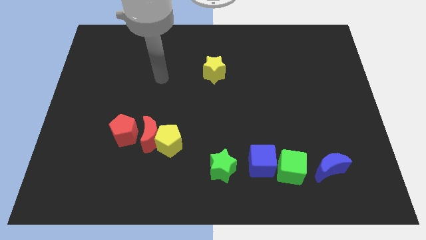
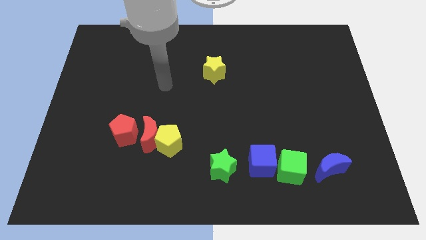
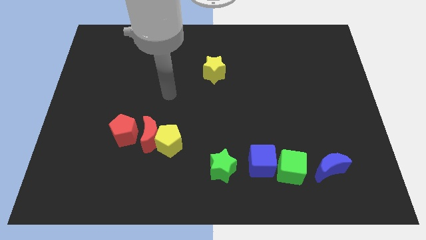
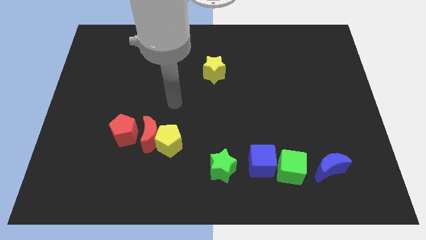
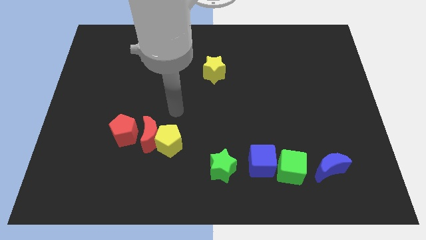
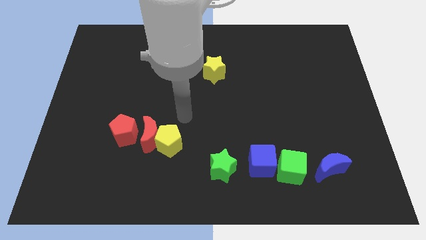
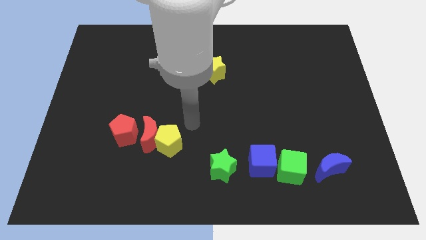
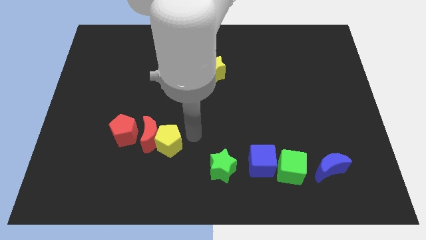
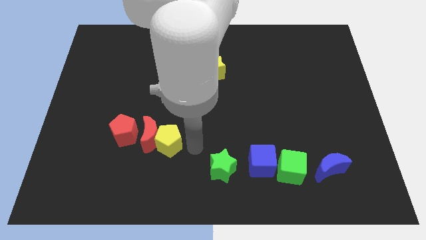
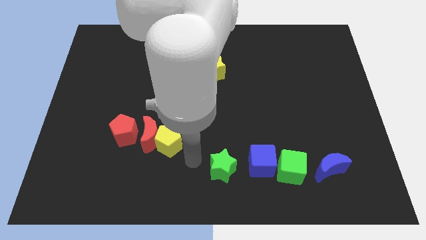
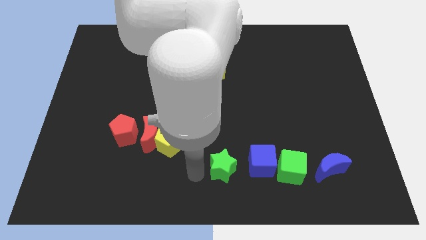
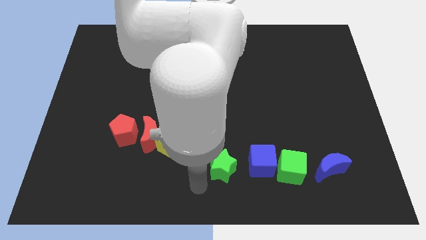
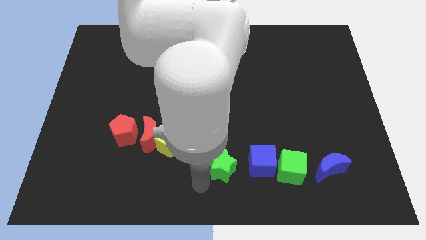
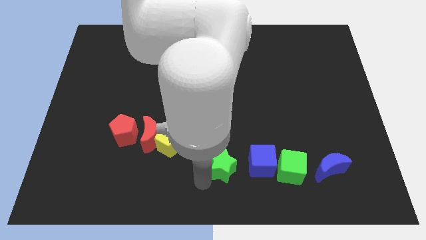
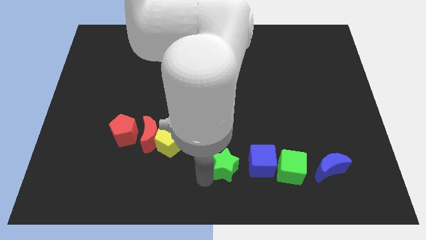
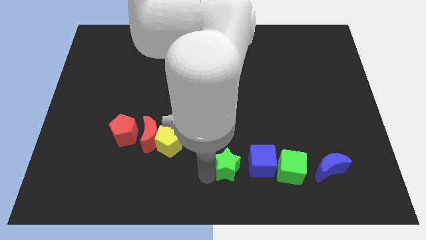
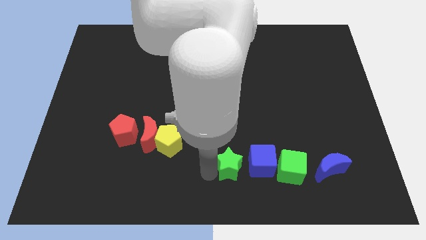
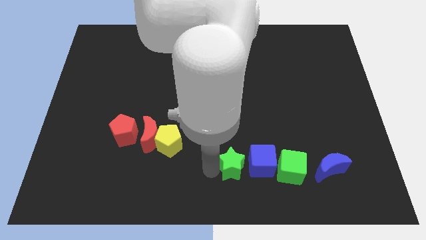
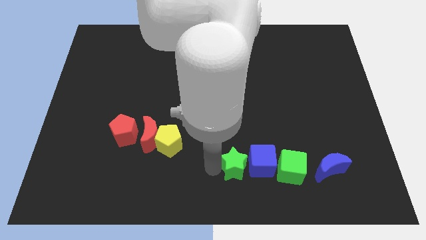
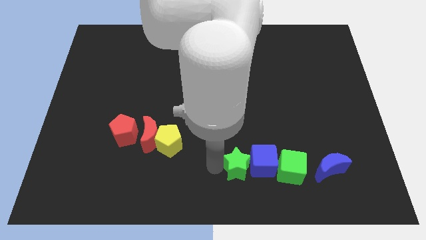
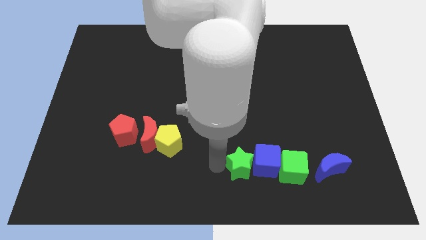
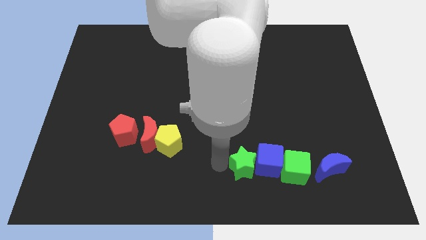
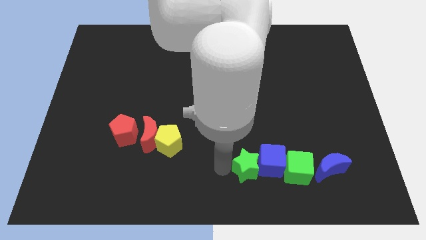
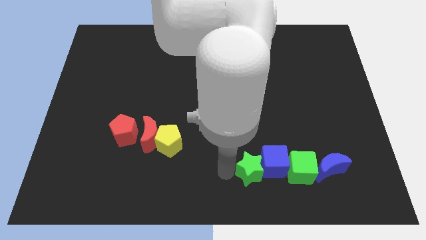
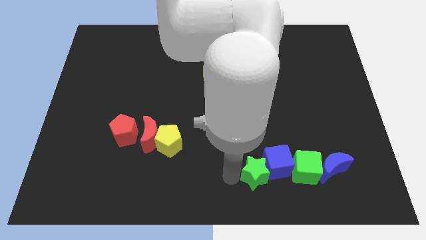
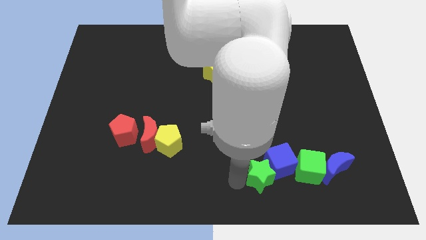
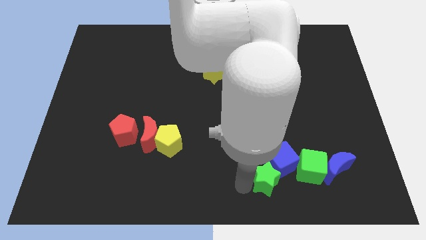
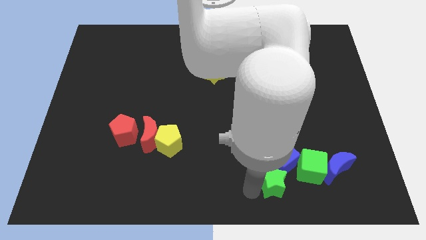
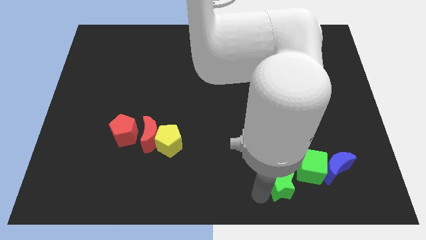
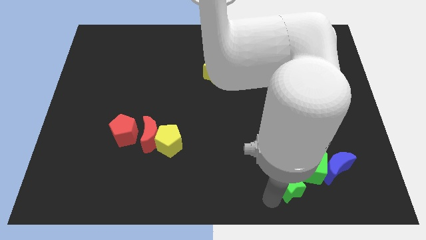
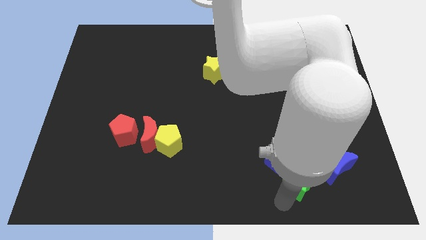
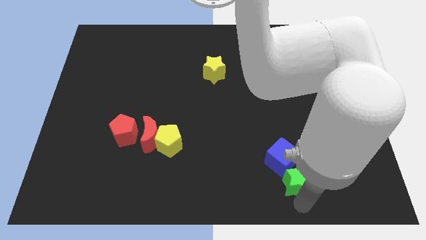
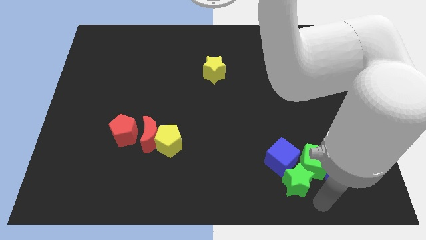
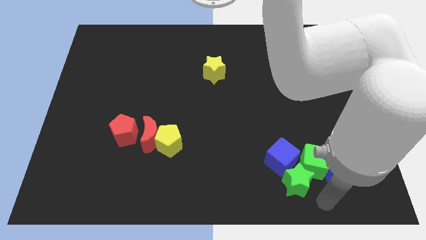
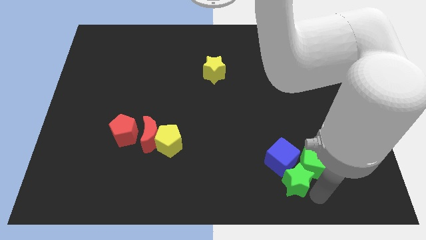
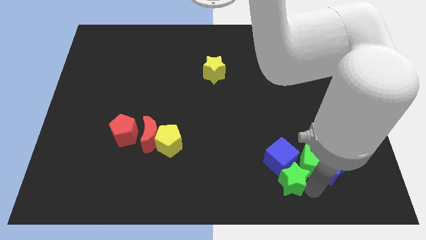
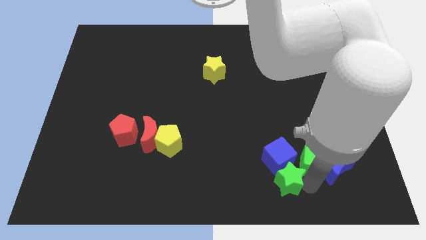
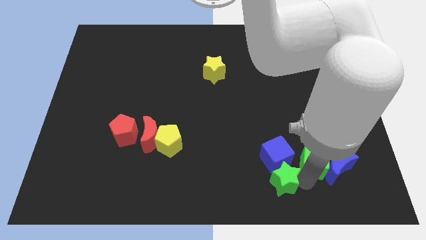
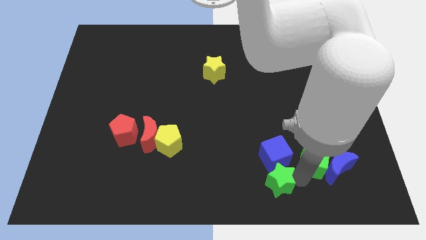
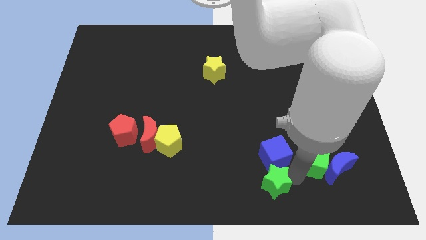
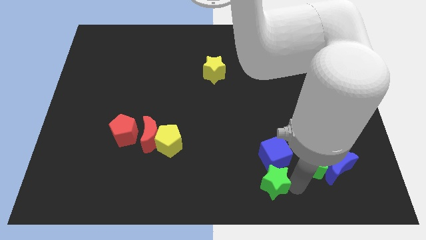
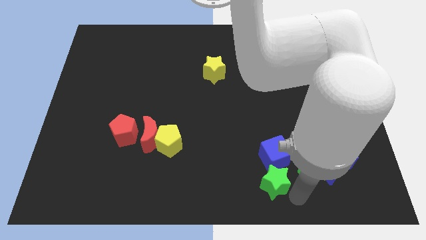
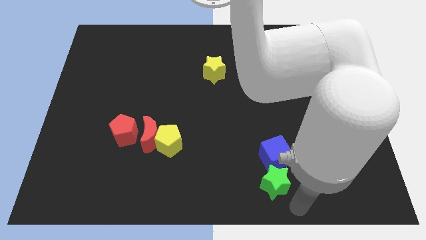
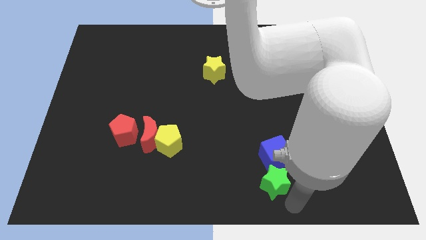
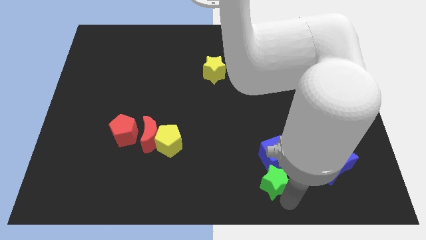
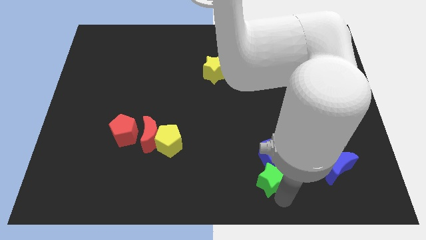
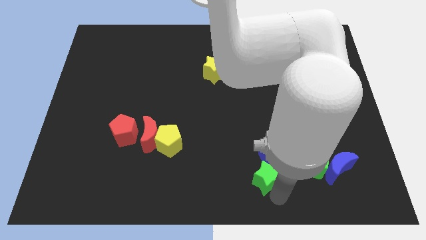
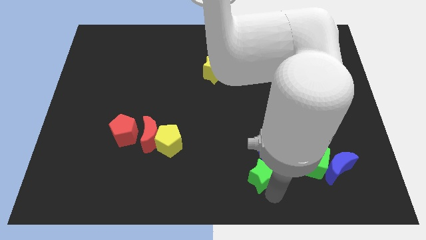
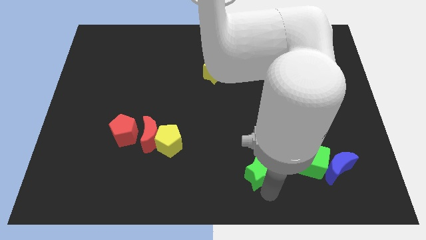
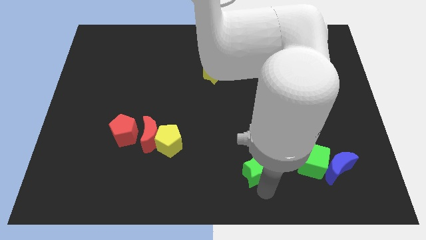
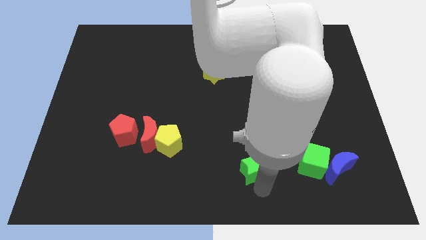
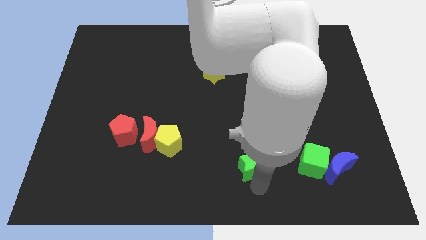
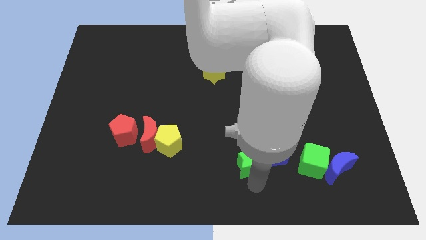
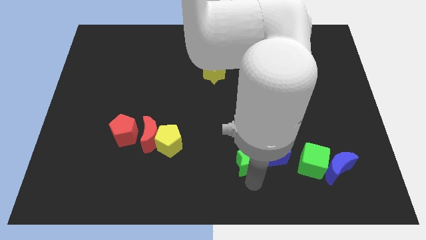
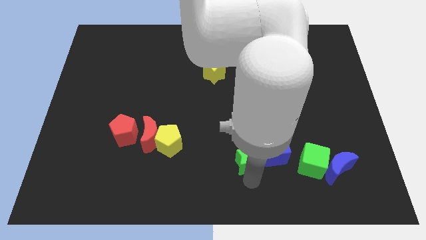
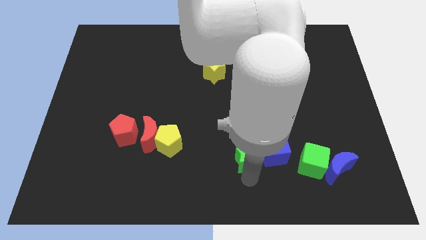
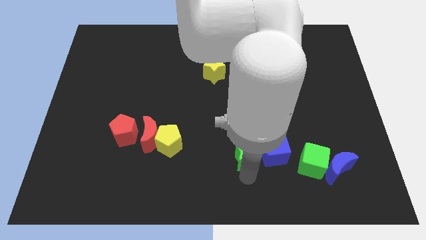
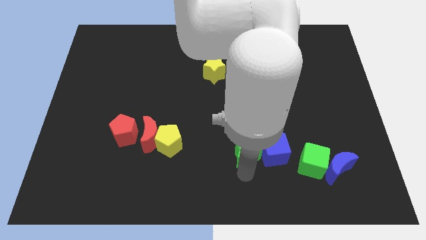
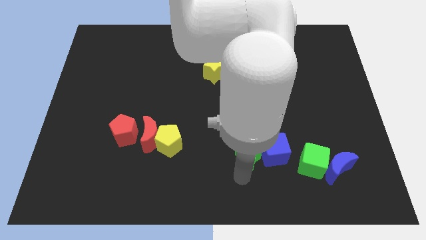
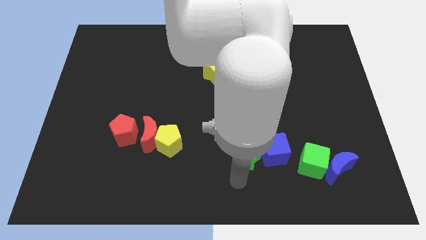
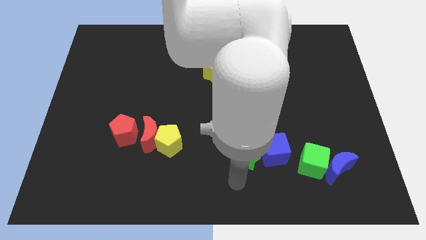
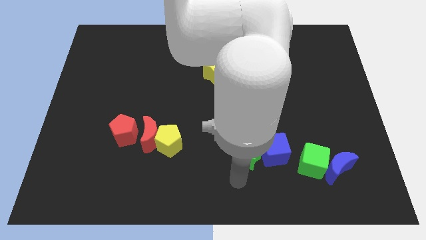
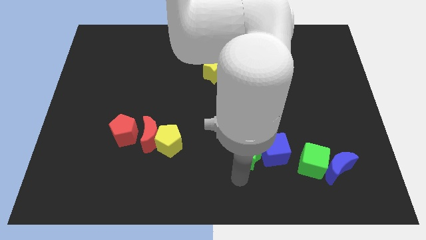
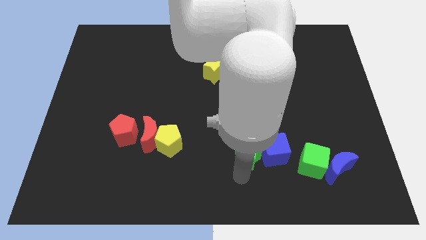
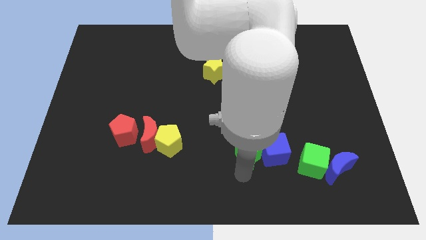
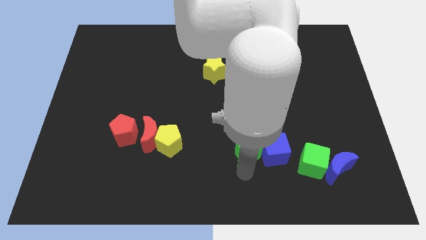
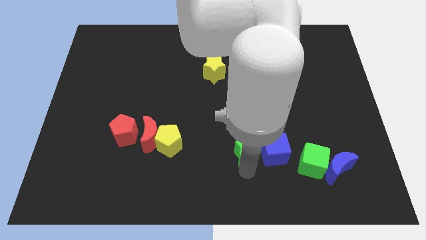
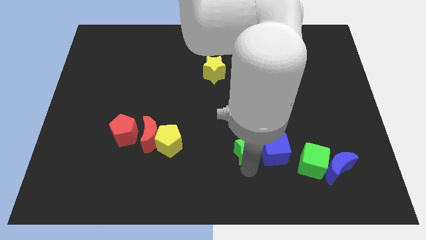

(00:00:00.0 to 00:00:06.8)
slightly slide the green star upwards and then to the right

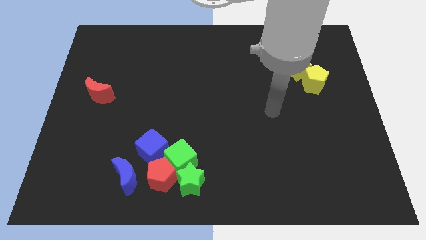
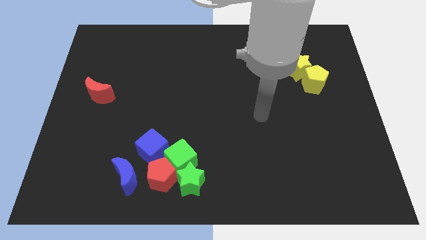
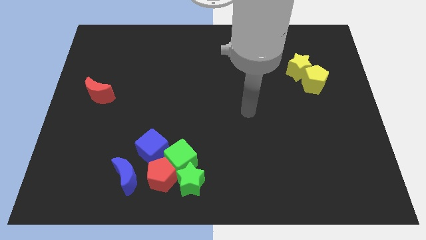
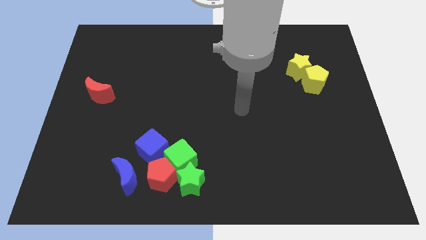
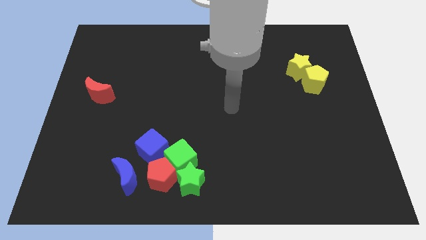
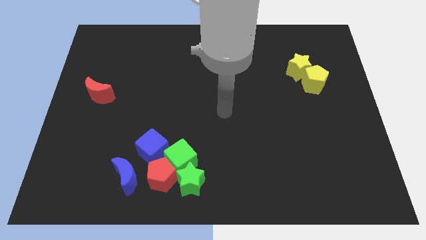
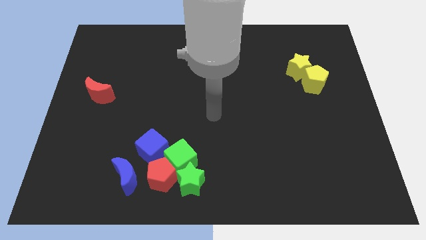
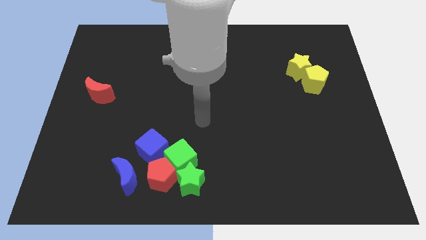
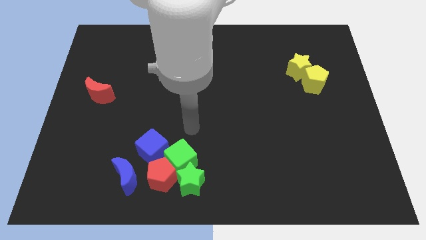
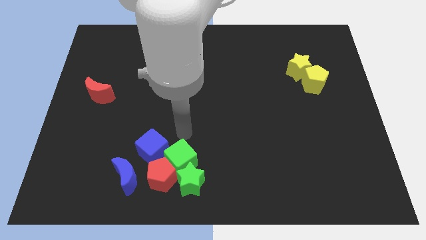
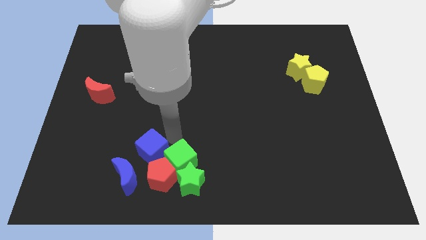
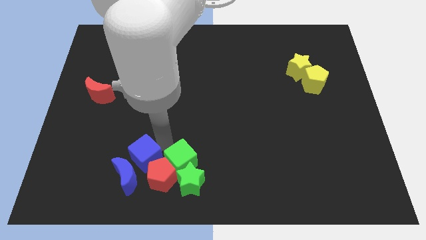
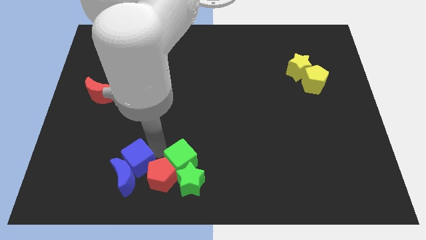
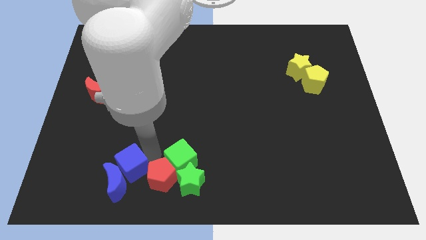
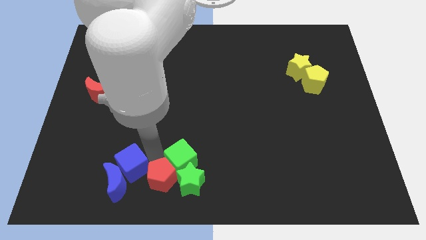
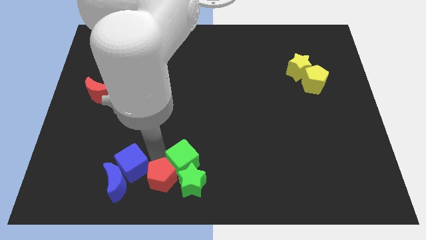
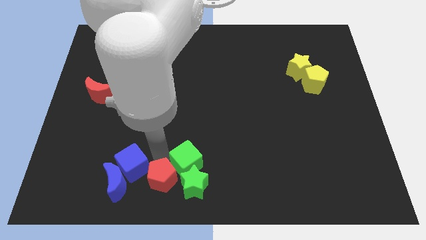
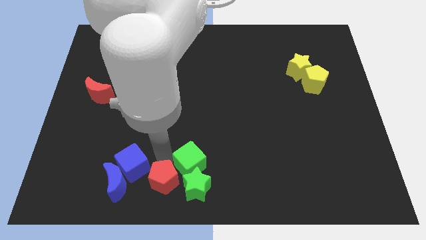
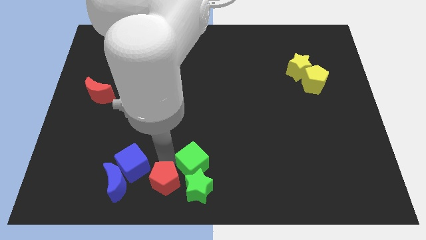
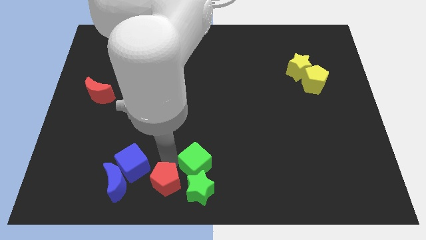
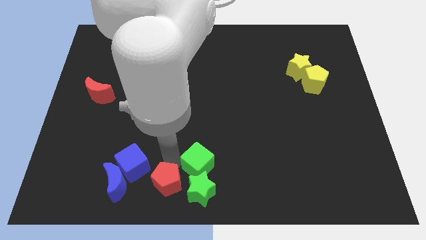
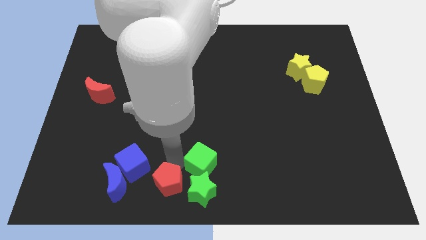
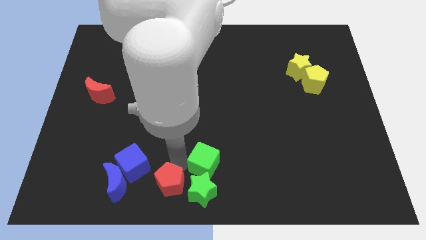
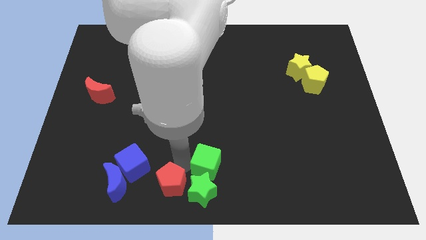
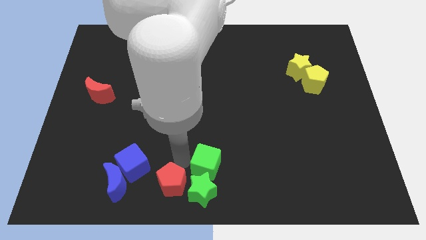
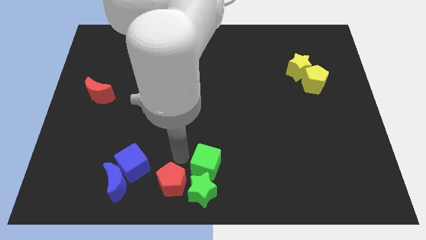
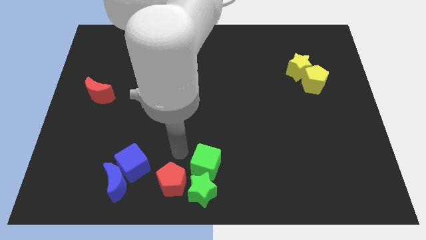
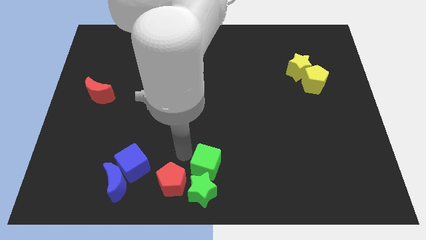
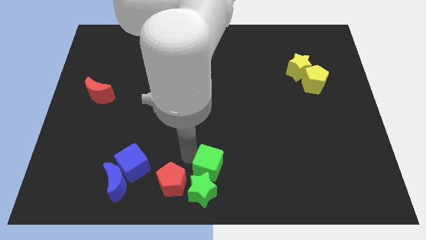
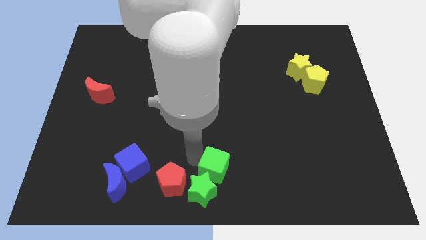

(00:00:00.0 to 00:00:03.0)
push the green cube to the right a little bit
